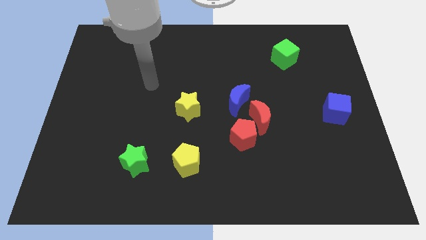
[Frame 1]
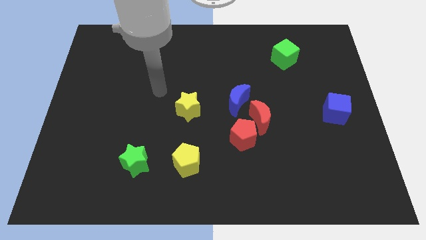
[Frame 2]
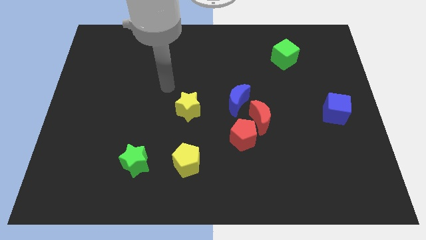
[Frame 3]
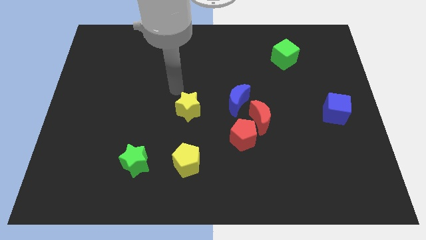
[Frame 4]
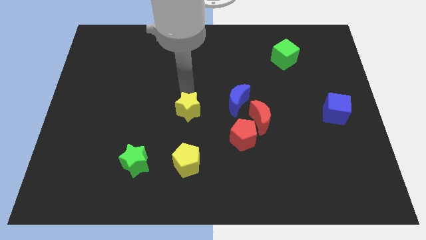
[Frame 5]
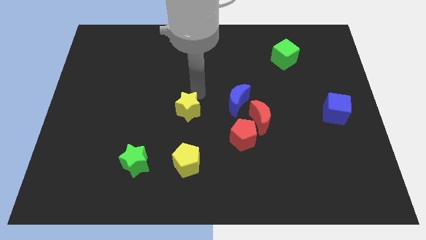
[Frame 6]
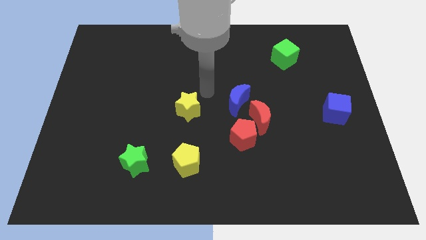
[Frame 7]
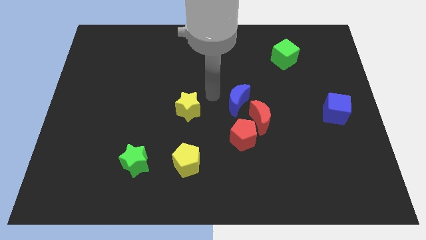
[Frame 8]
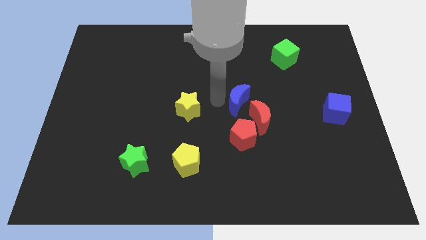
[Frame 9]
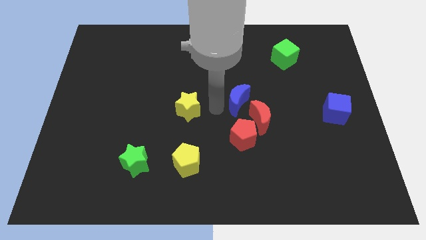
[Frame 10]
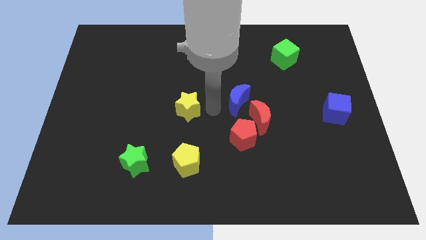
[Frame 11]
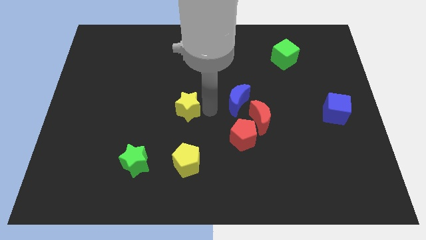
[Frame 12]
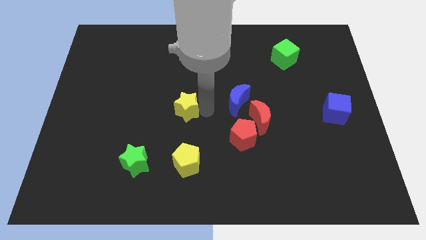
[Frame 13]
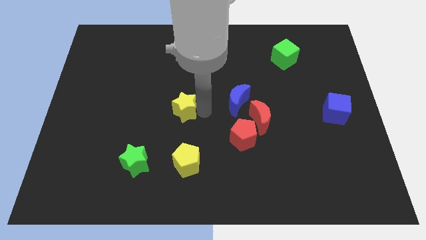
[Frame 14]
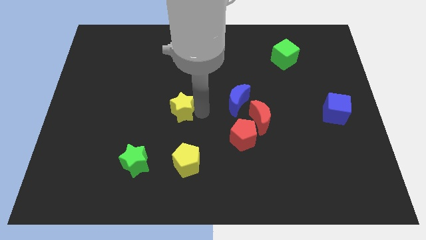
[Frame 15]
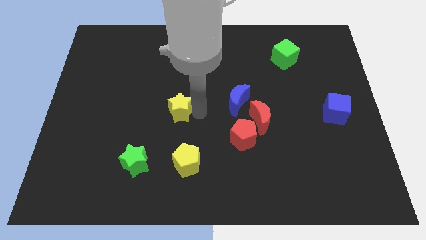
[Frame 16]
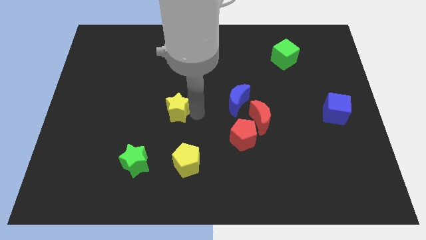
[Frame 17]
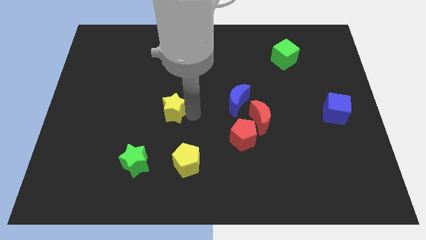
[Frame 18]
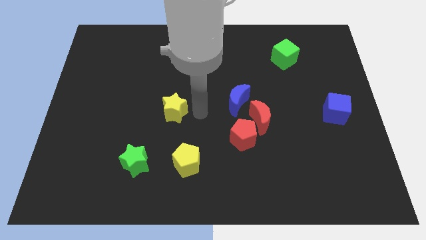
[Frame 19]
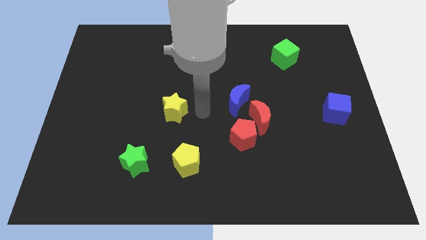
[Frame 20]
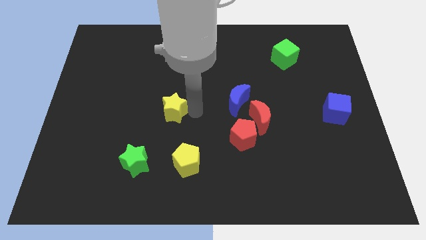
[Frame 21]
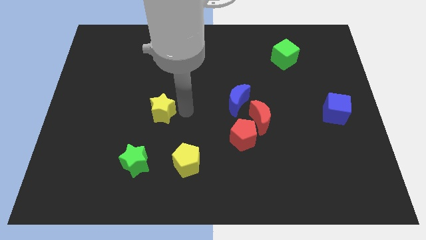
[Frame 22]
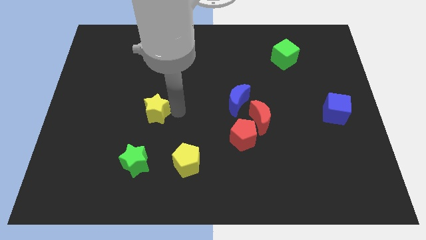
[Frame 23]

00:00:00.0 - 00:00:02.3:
slightly push the yellow star left

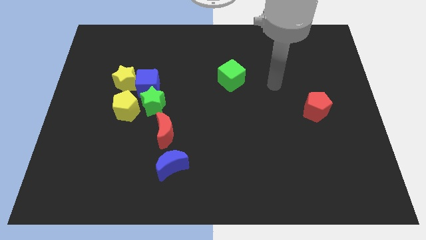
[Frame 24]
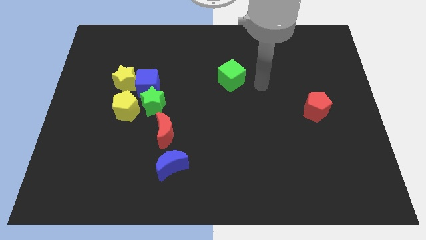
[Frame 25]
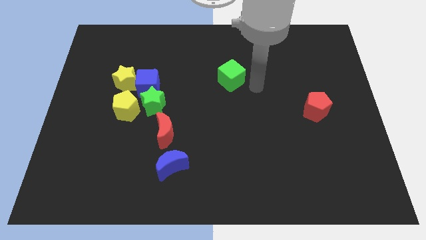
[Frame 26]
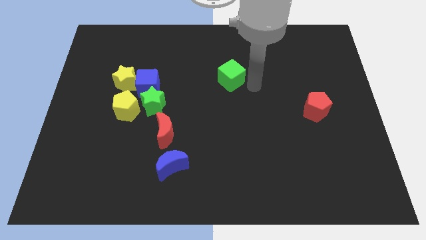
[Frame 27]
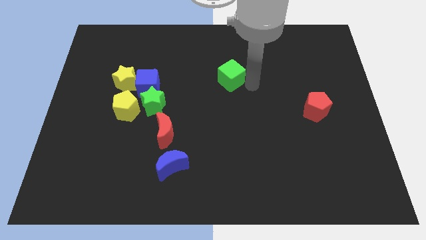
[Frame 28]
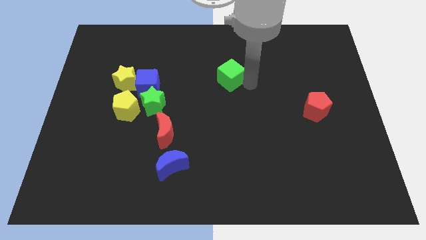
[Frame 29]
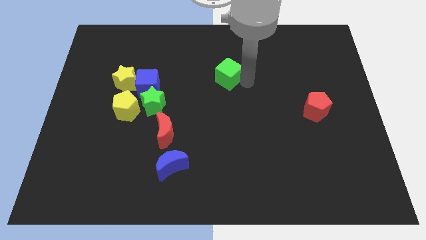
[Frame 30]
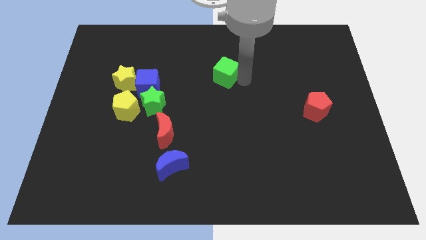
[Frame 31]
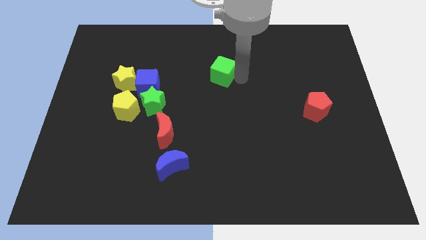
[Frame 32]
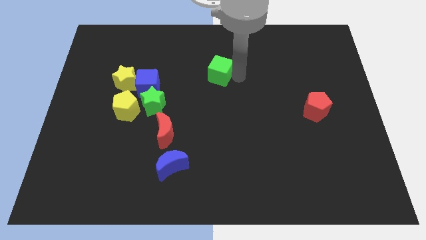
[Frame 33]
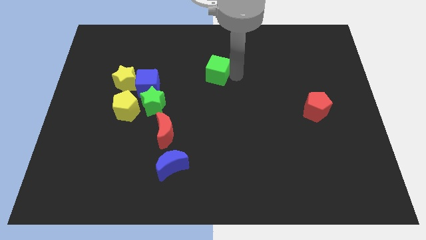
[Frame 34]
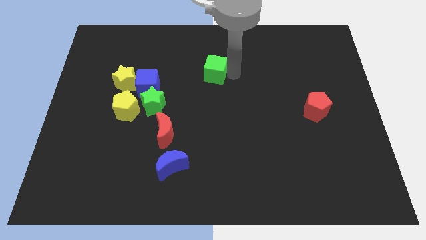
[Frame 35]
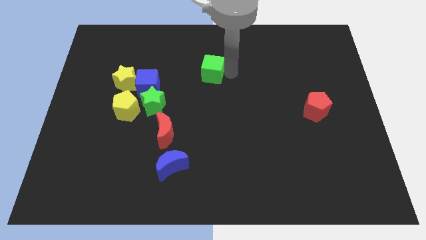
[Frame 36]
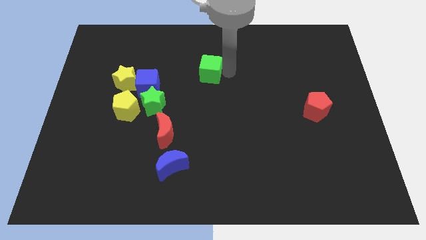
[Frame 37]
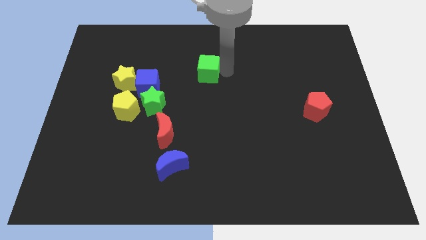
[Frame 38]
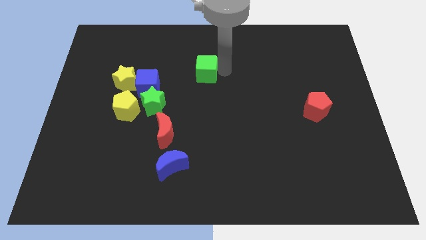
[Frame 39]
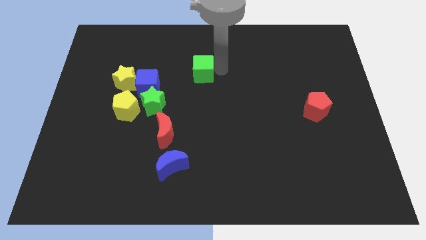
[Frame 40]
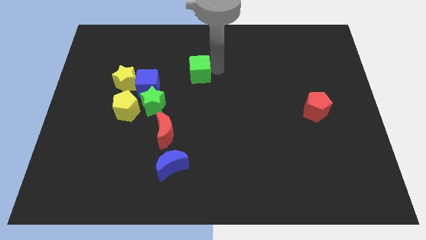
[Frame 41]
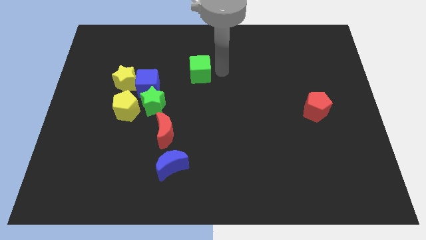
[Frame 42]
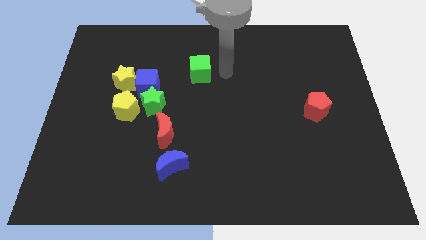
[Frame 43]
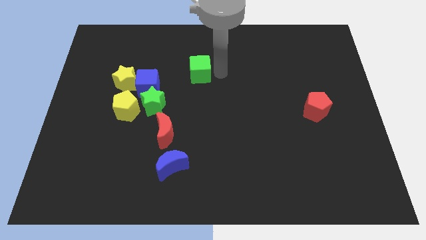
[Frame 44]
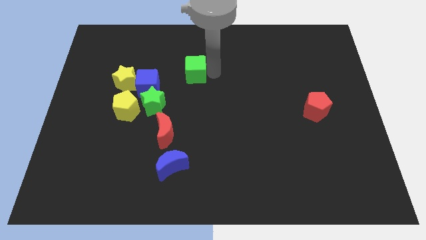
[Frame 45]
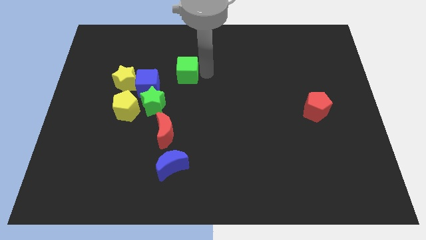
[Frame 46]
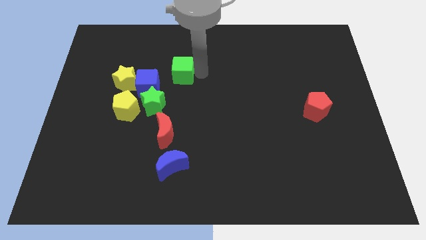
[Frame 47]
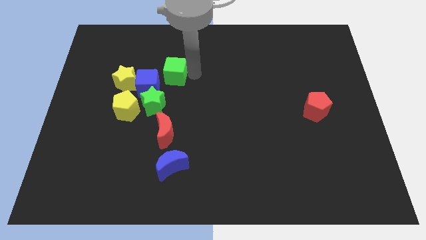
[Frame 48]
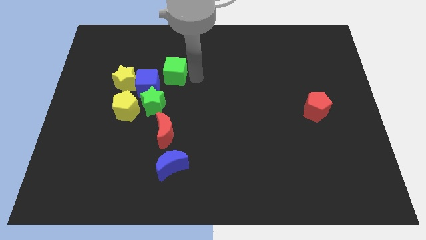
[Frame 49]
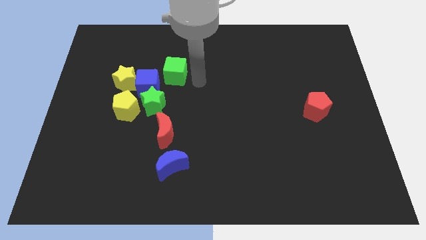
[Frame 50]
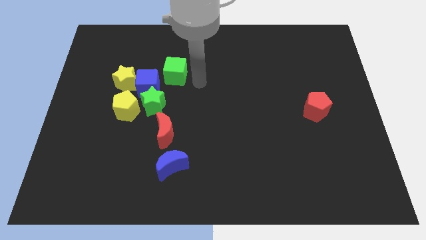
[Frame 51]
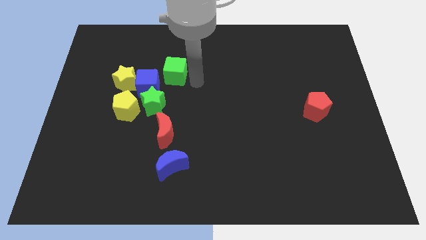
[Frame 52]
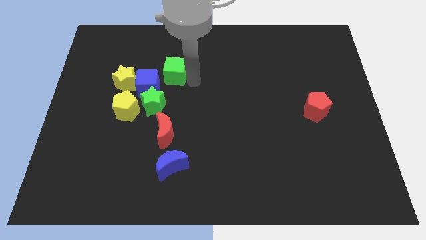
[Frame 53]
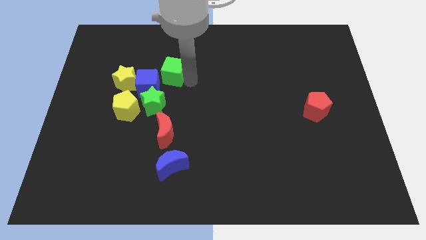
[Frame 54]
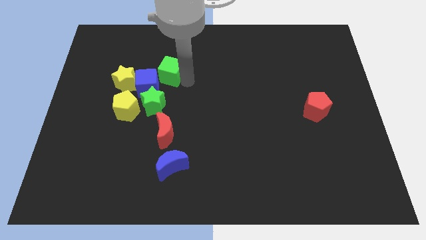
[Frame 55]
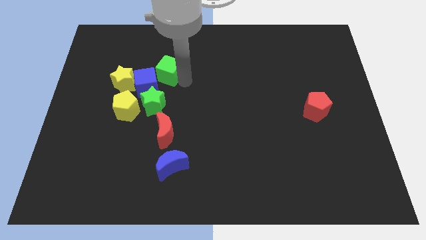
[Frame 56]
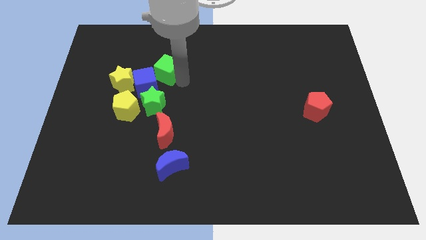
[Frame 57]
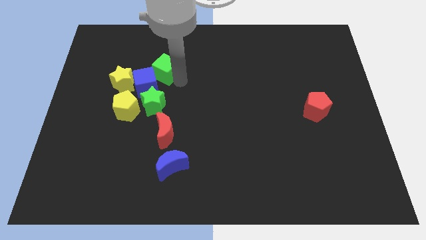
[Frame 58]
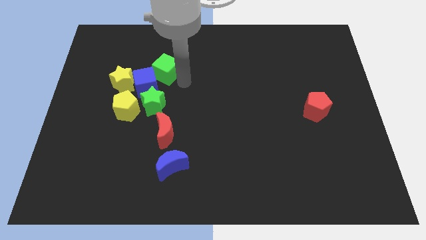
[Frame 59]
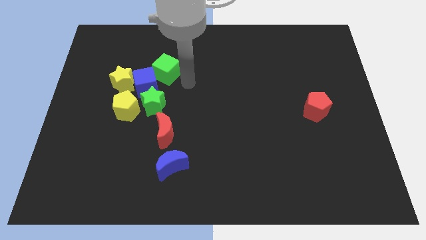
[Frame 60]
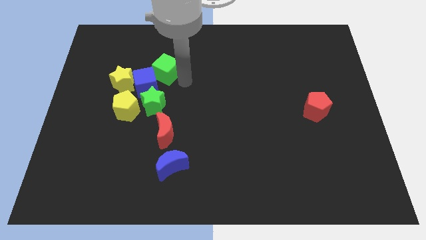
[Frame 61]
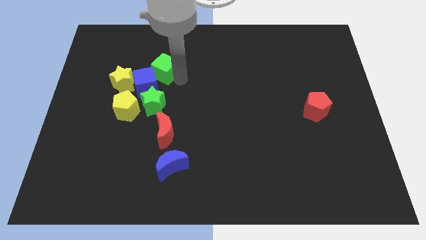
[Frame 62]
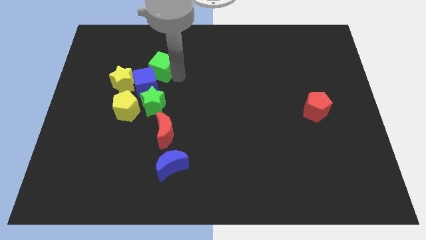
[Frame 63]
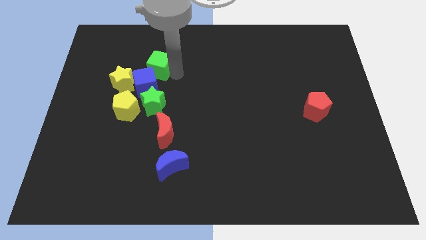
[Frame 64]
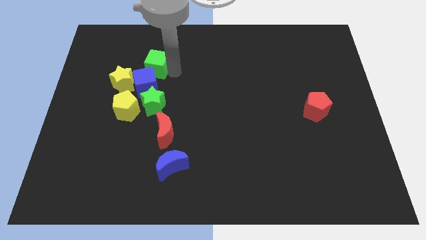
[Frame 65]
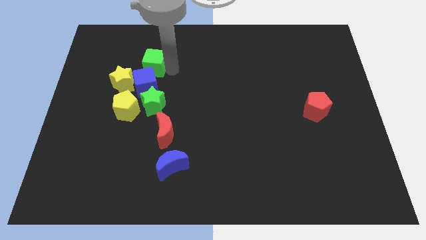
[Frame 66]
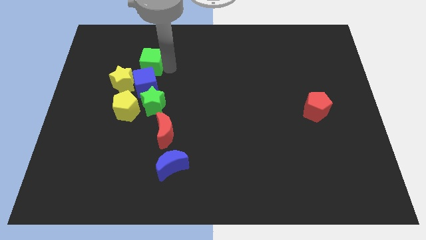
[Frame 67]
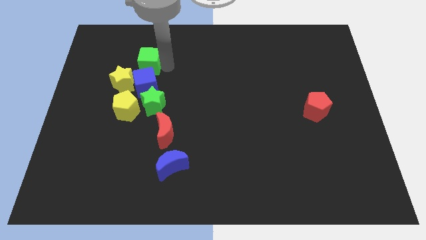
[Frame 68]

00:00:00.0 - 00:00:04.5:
slide the green cube to the left

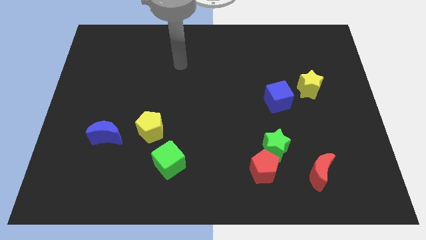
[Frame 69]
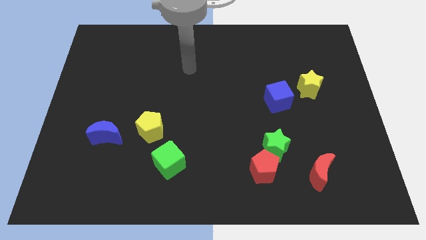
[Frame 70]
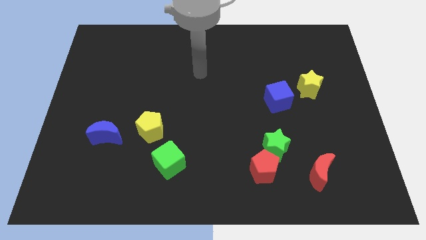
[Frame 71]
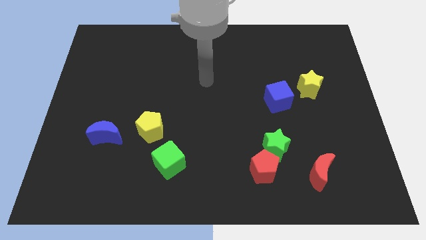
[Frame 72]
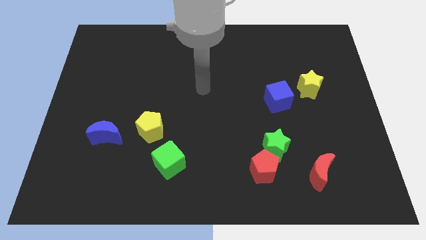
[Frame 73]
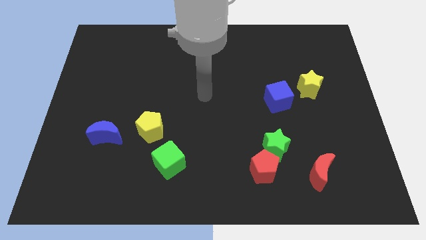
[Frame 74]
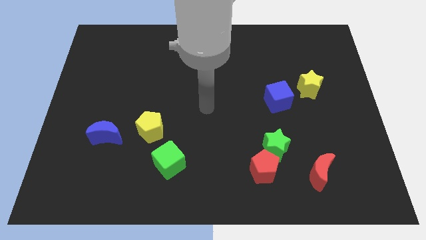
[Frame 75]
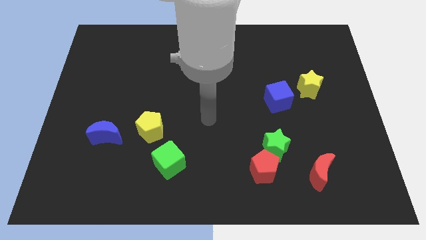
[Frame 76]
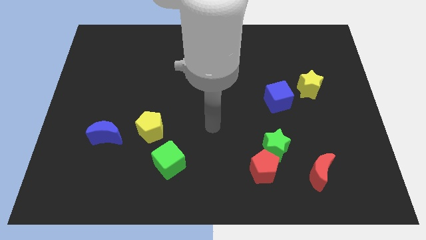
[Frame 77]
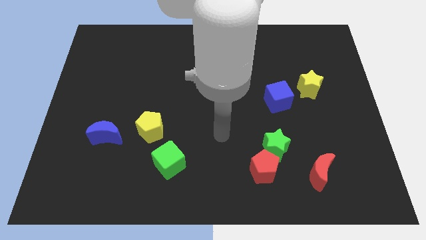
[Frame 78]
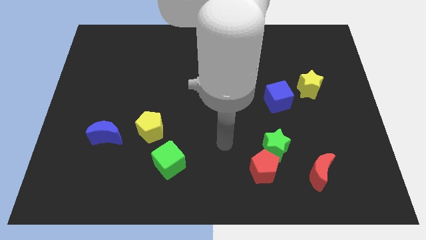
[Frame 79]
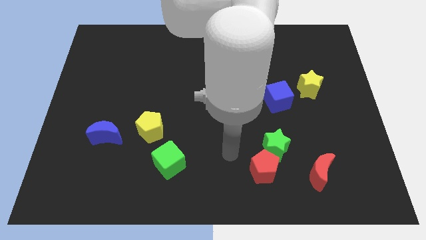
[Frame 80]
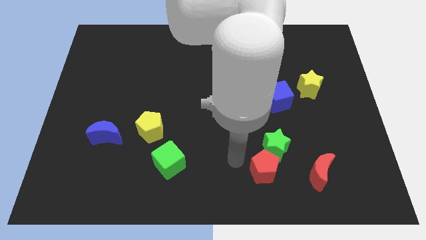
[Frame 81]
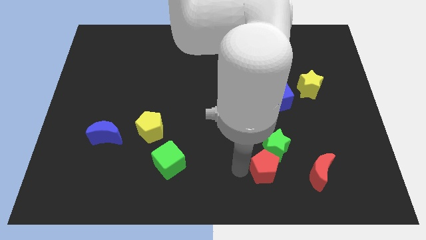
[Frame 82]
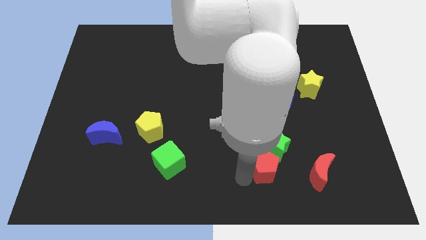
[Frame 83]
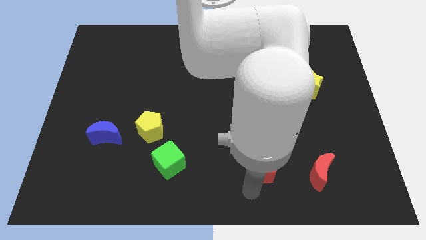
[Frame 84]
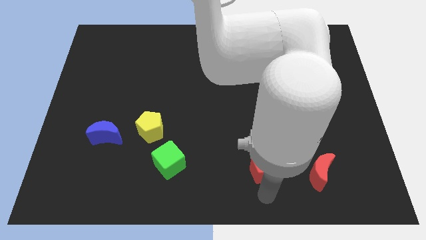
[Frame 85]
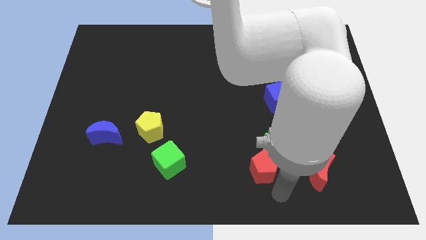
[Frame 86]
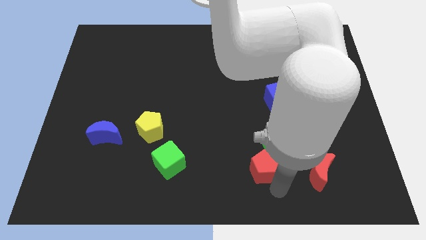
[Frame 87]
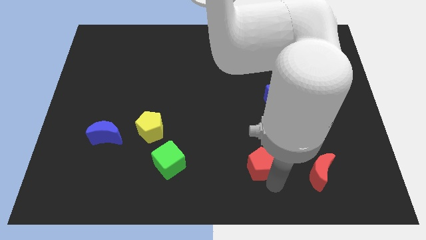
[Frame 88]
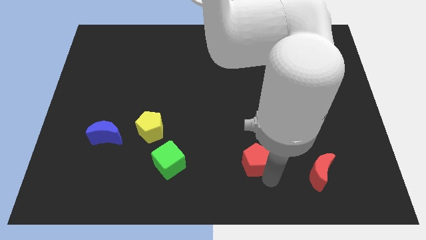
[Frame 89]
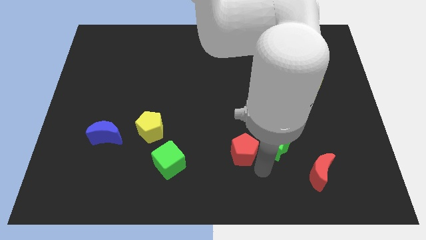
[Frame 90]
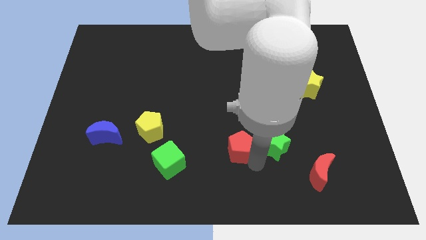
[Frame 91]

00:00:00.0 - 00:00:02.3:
slightly move the red pentagon diagonally up and left
